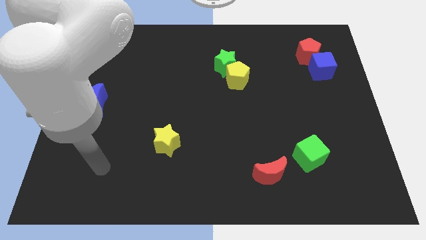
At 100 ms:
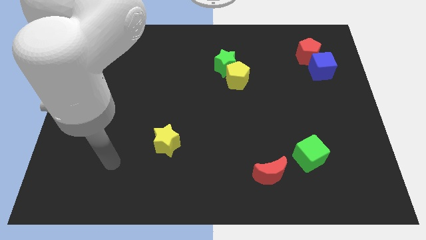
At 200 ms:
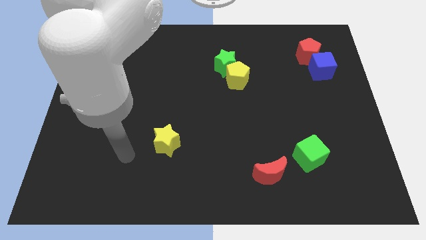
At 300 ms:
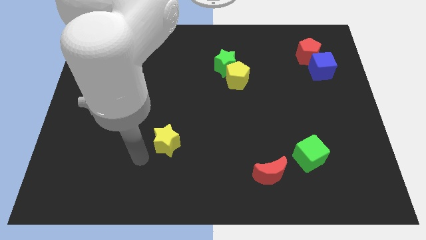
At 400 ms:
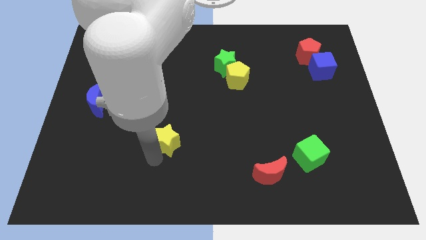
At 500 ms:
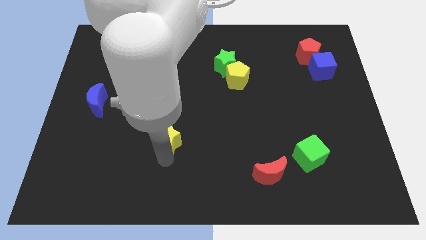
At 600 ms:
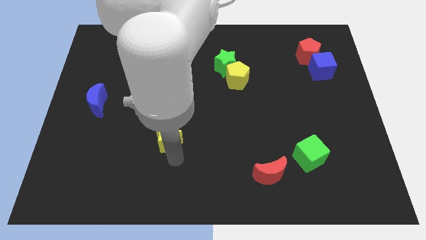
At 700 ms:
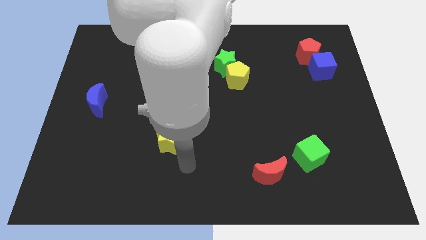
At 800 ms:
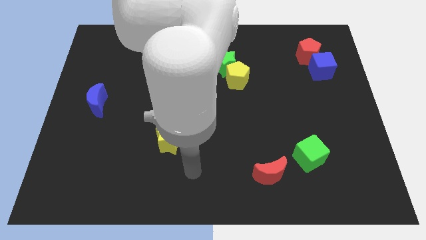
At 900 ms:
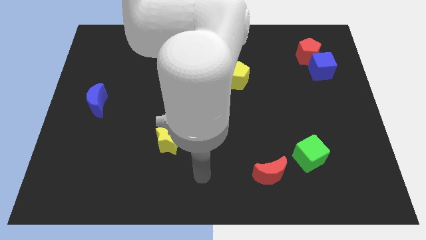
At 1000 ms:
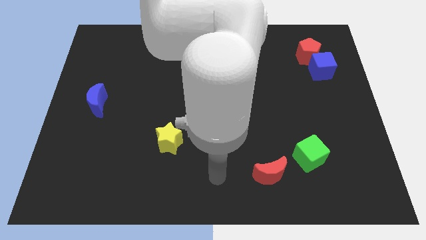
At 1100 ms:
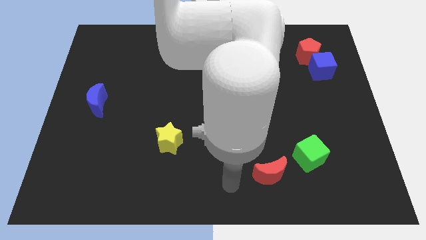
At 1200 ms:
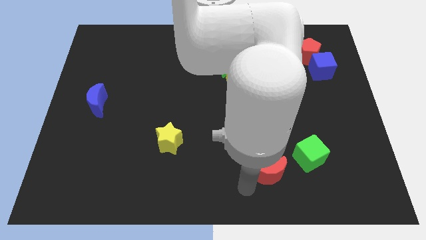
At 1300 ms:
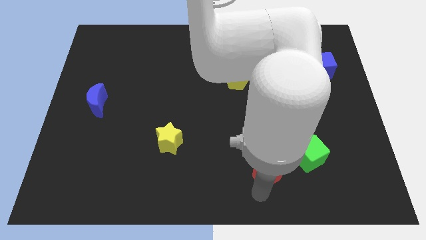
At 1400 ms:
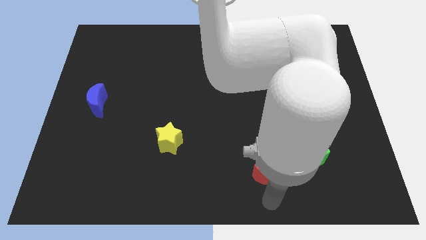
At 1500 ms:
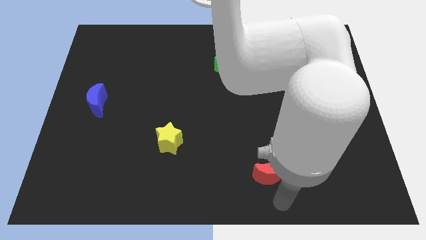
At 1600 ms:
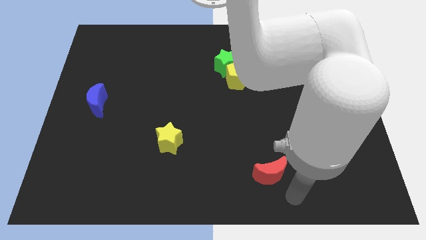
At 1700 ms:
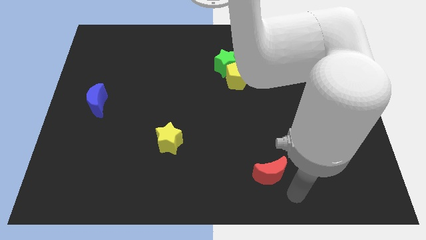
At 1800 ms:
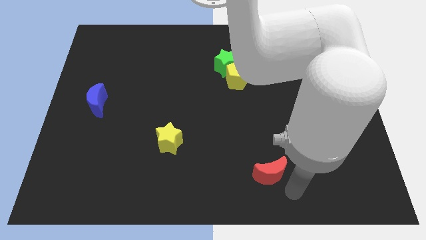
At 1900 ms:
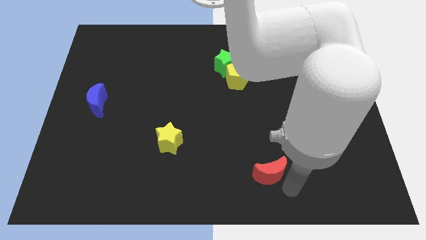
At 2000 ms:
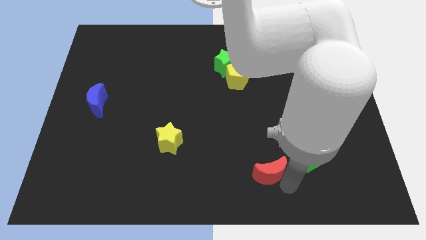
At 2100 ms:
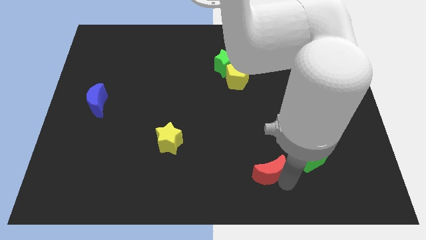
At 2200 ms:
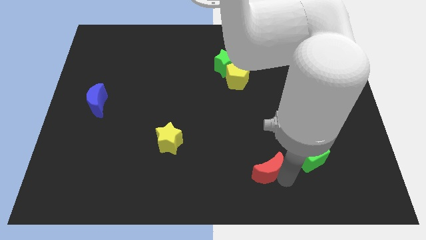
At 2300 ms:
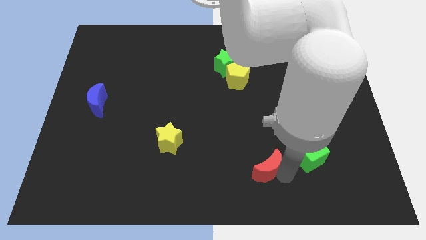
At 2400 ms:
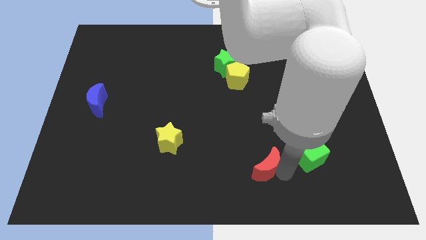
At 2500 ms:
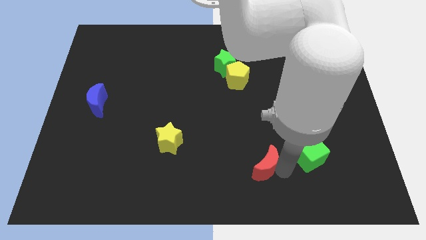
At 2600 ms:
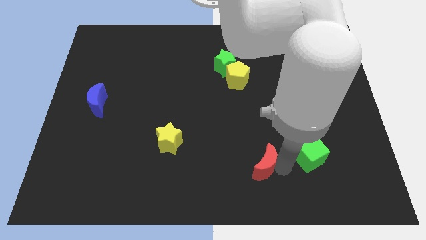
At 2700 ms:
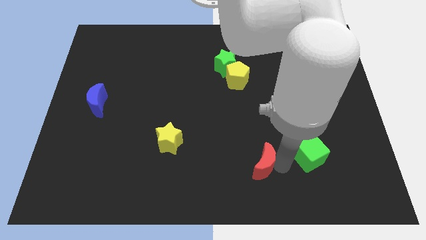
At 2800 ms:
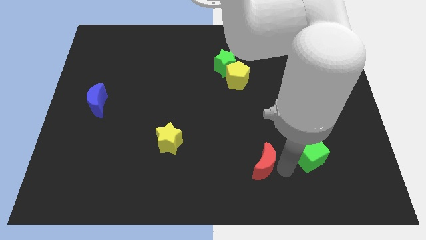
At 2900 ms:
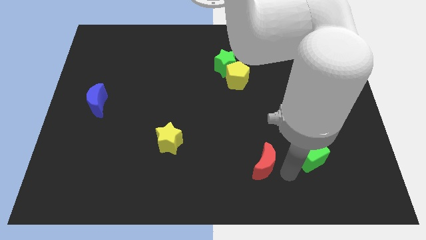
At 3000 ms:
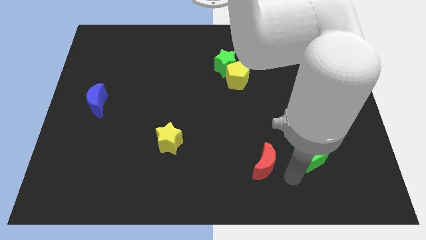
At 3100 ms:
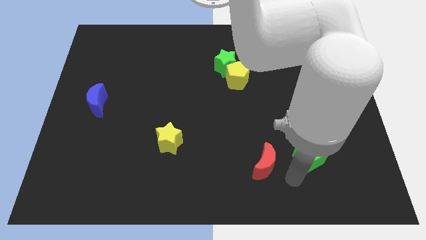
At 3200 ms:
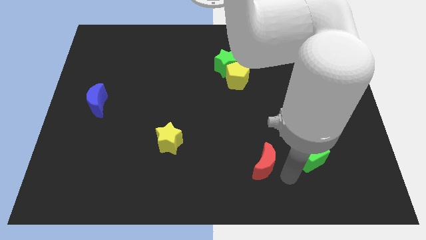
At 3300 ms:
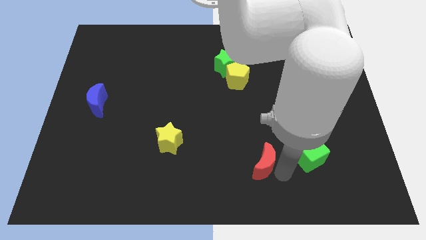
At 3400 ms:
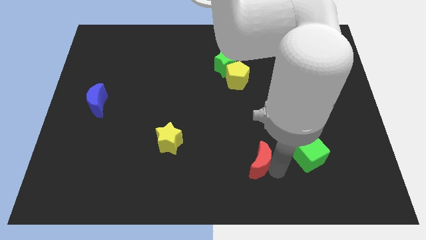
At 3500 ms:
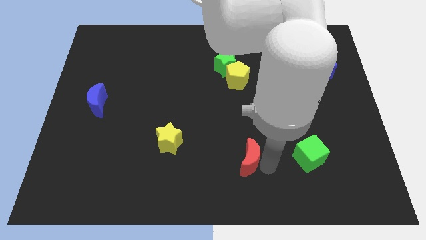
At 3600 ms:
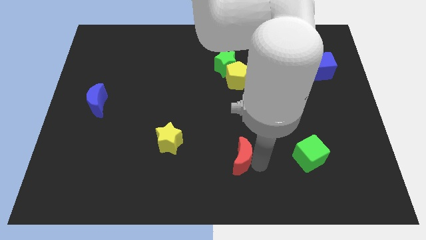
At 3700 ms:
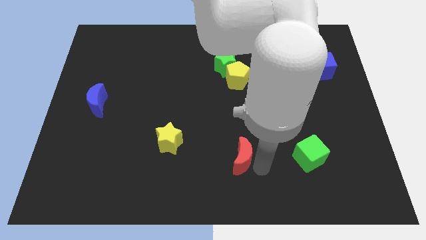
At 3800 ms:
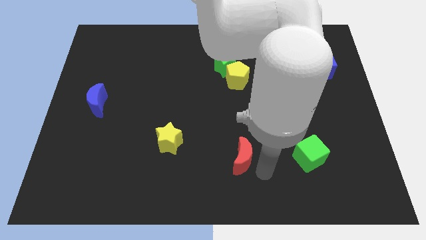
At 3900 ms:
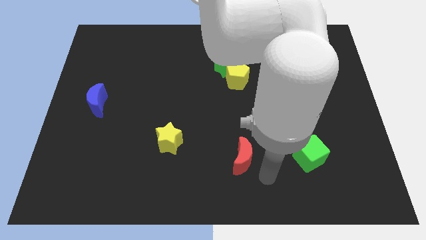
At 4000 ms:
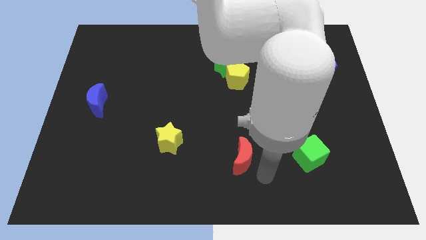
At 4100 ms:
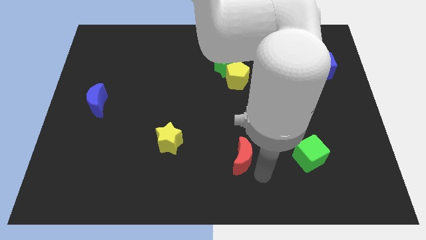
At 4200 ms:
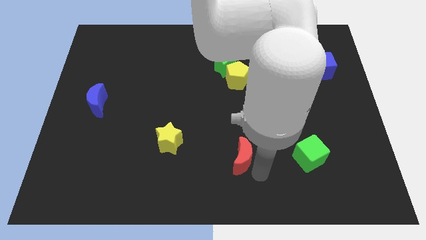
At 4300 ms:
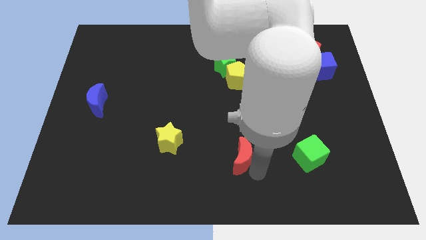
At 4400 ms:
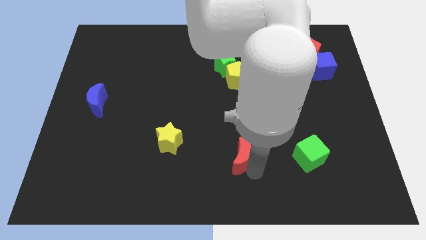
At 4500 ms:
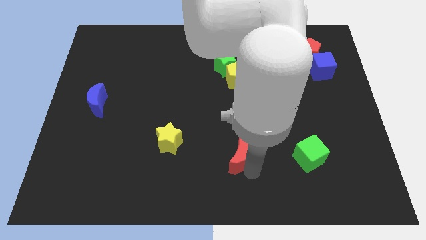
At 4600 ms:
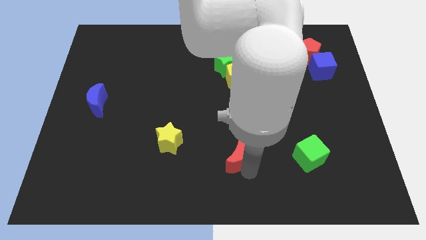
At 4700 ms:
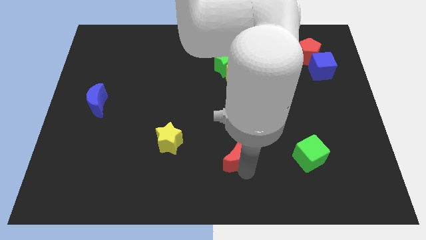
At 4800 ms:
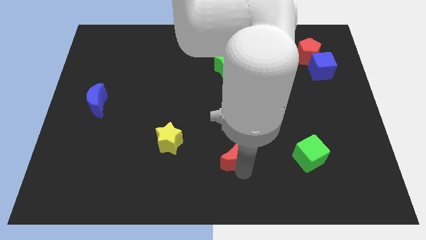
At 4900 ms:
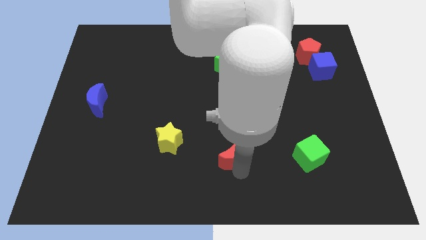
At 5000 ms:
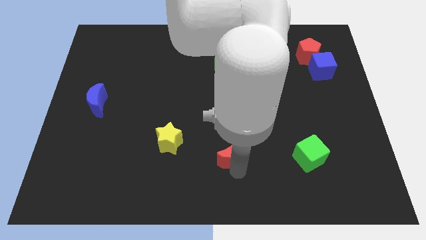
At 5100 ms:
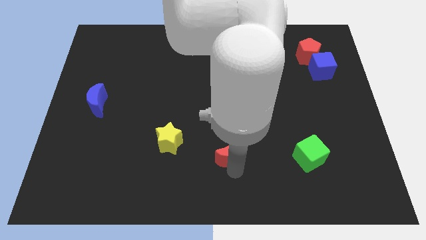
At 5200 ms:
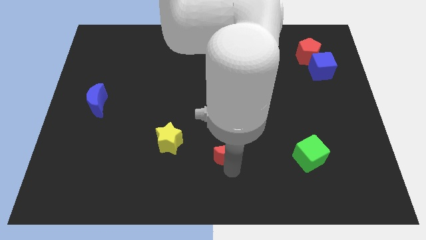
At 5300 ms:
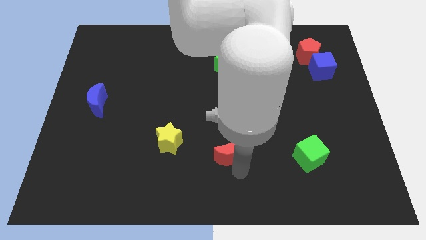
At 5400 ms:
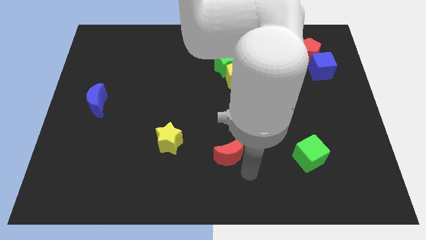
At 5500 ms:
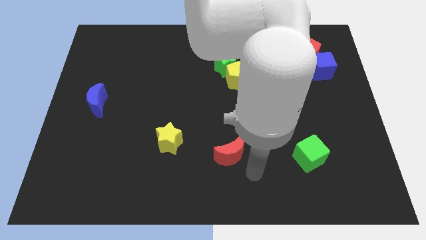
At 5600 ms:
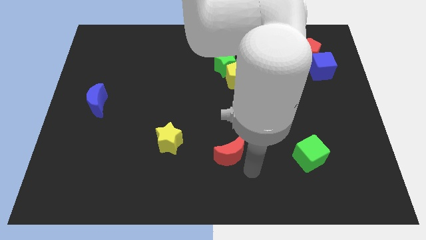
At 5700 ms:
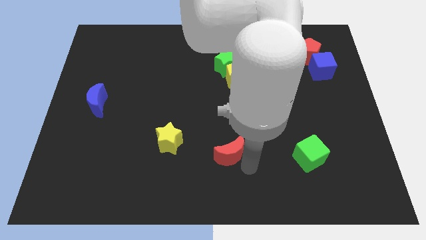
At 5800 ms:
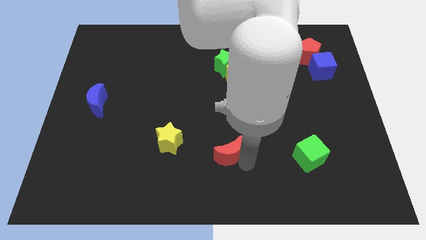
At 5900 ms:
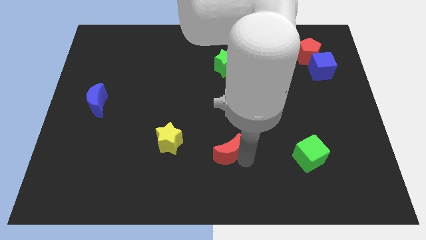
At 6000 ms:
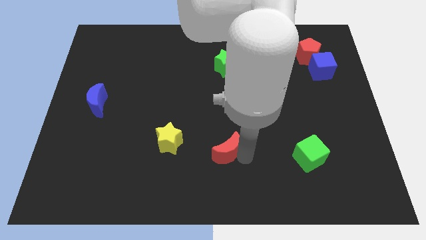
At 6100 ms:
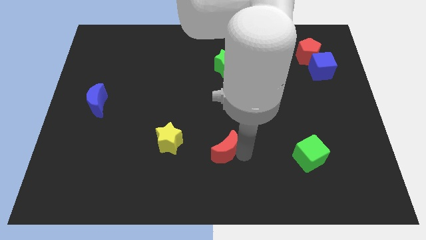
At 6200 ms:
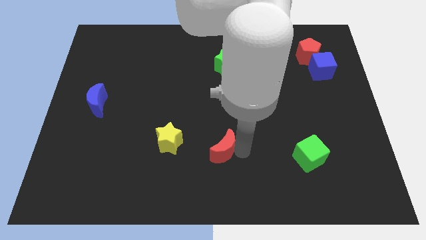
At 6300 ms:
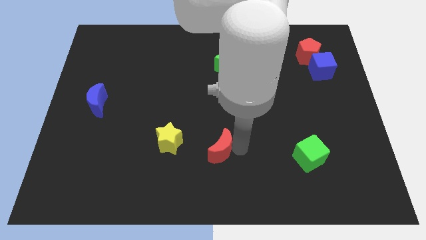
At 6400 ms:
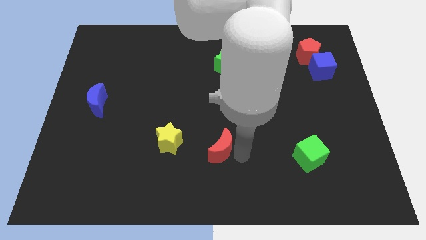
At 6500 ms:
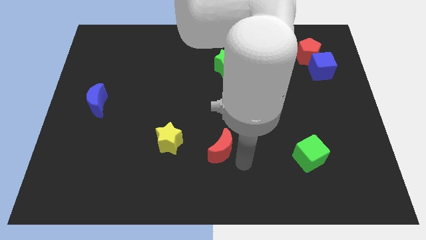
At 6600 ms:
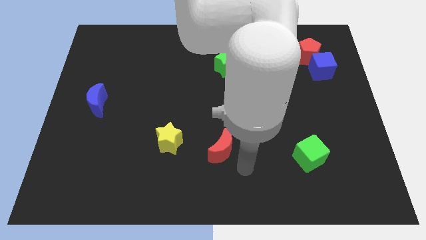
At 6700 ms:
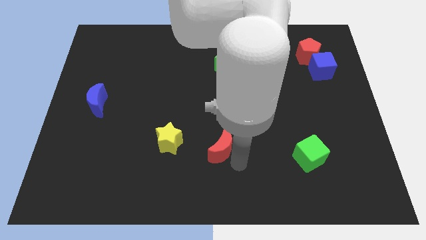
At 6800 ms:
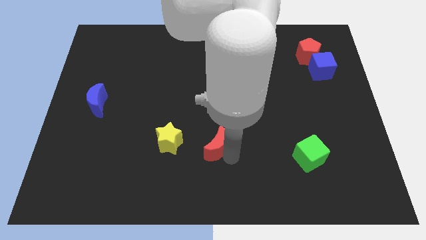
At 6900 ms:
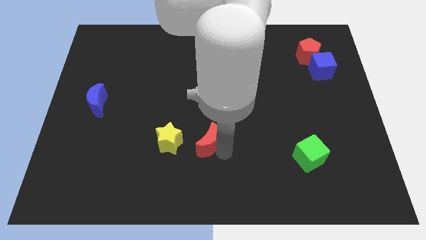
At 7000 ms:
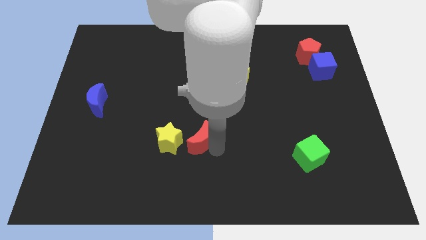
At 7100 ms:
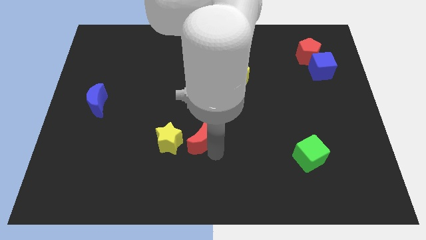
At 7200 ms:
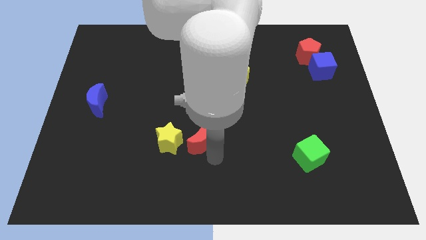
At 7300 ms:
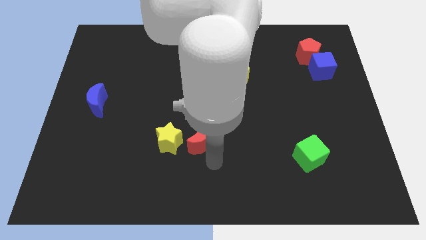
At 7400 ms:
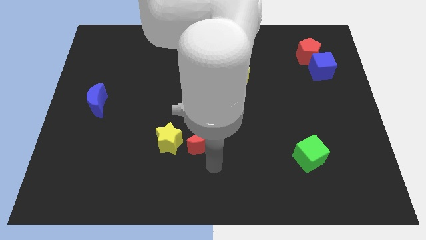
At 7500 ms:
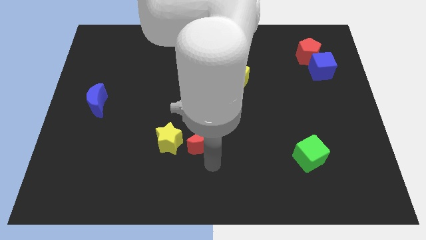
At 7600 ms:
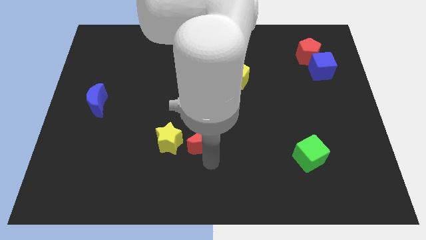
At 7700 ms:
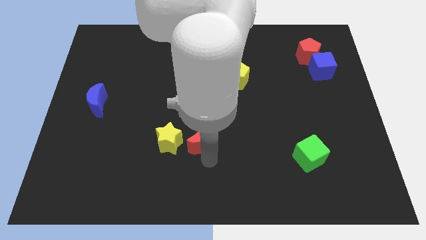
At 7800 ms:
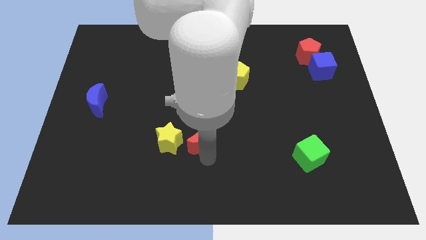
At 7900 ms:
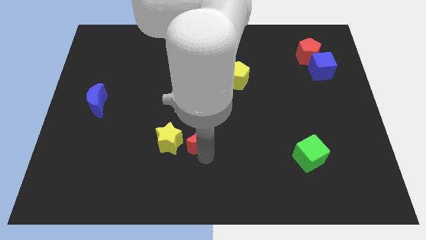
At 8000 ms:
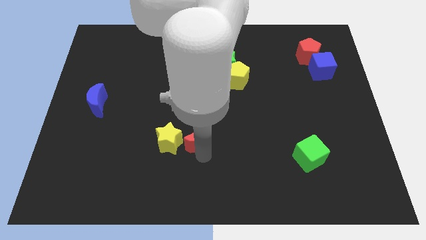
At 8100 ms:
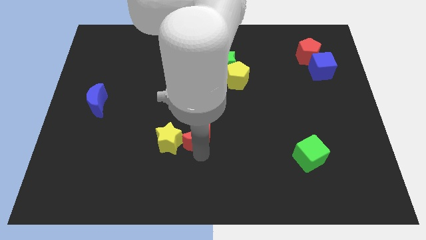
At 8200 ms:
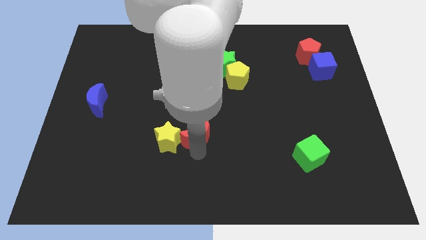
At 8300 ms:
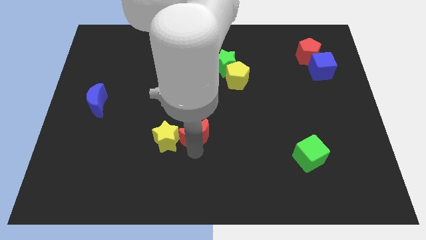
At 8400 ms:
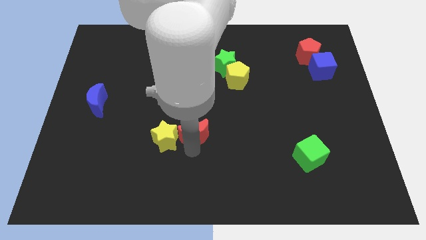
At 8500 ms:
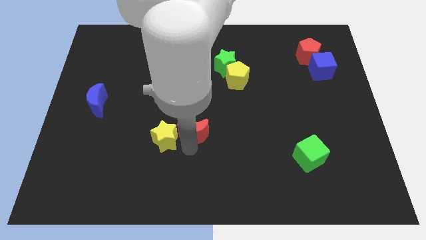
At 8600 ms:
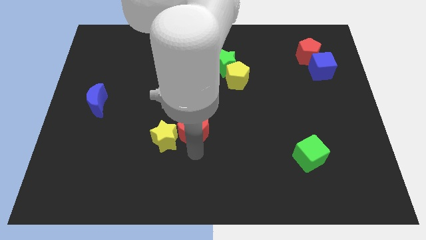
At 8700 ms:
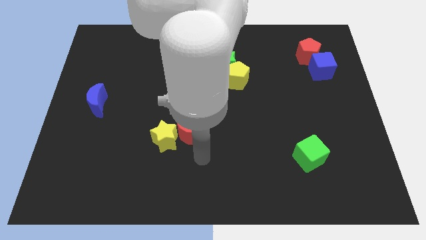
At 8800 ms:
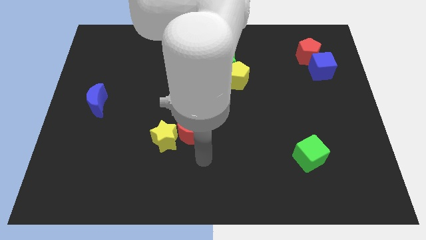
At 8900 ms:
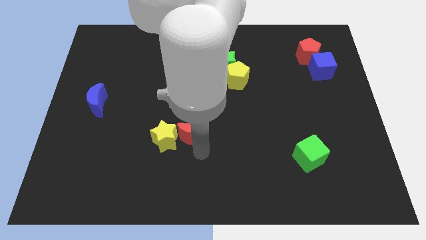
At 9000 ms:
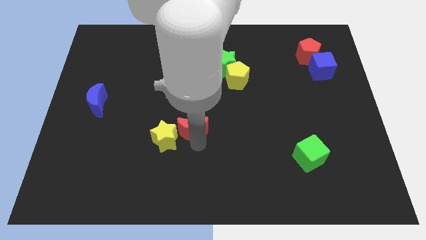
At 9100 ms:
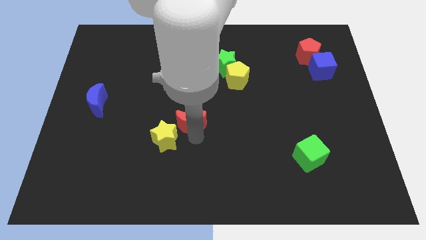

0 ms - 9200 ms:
move the red moon up and left diagonally
